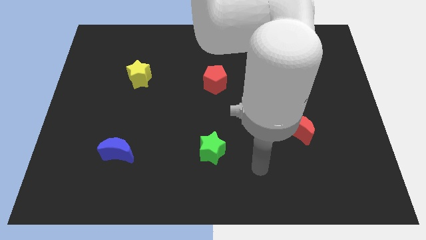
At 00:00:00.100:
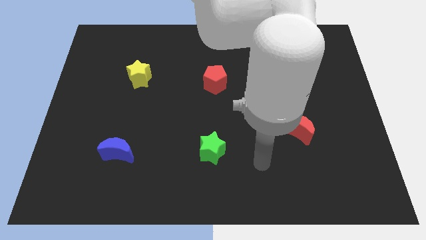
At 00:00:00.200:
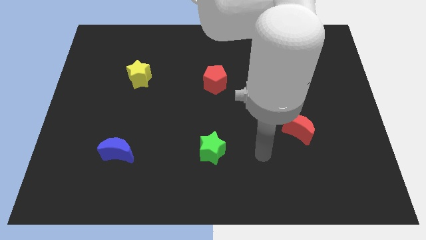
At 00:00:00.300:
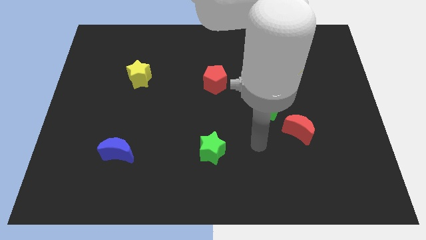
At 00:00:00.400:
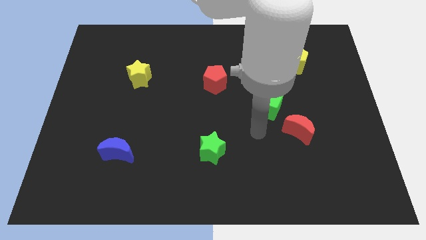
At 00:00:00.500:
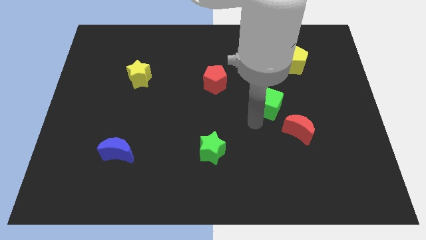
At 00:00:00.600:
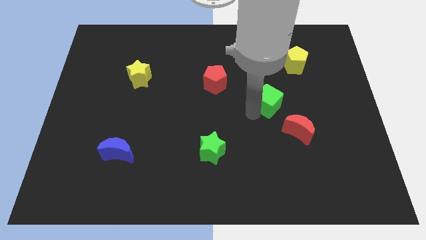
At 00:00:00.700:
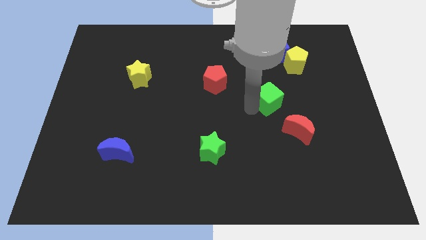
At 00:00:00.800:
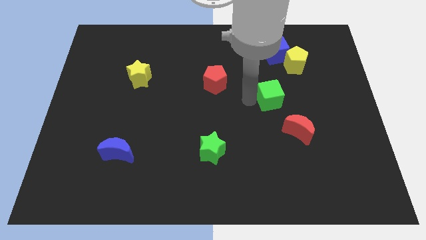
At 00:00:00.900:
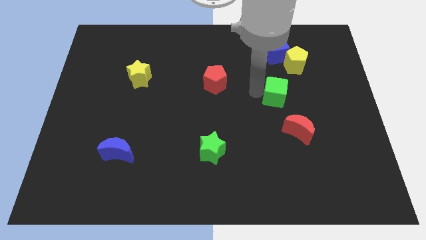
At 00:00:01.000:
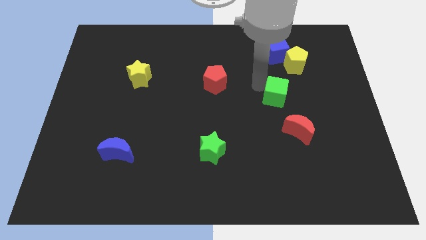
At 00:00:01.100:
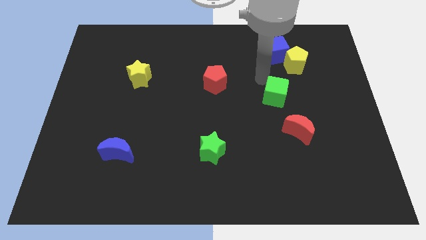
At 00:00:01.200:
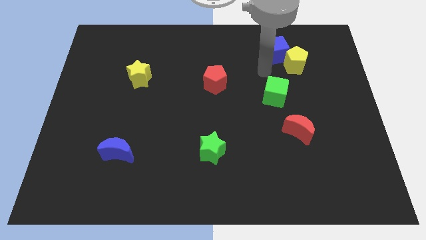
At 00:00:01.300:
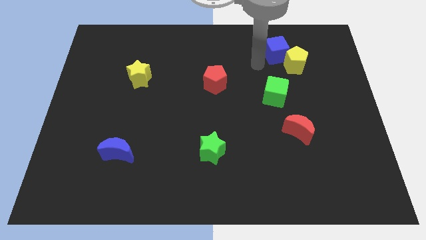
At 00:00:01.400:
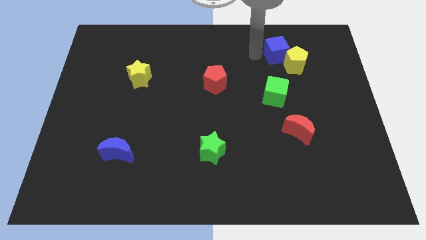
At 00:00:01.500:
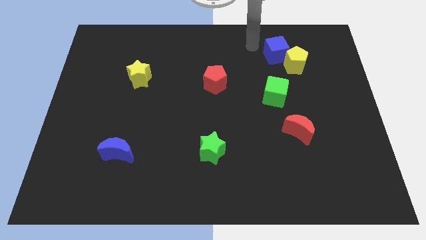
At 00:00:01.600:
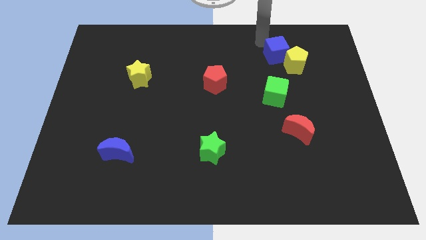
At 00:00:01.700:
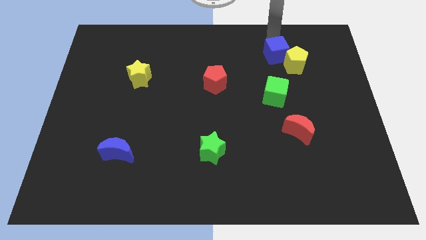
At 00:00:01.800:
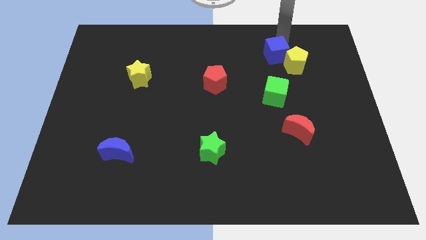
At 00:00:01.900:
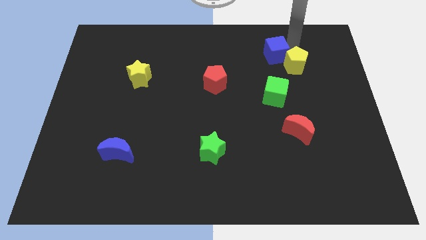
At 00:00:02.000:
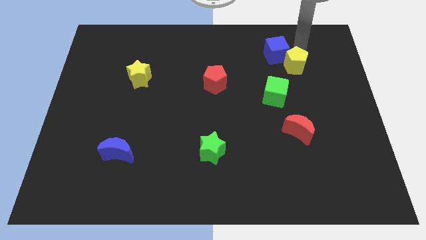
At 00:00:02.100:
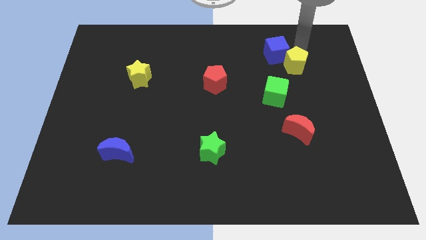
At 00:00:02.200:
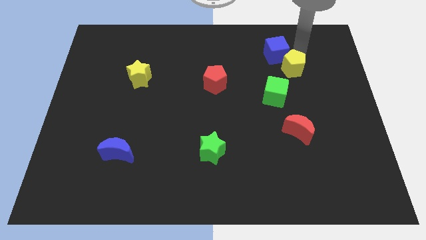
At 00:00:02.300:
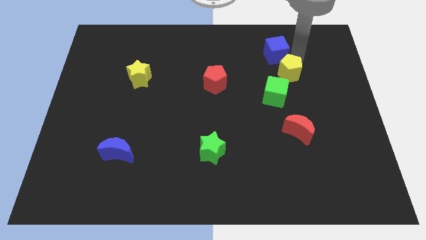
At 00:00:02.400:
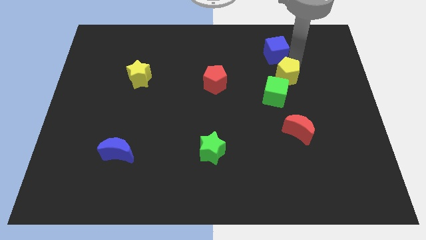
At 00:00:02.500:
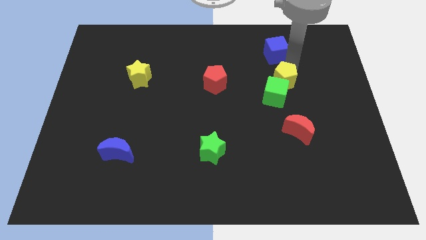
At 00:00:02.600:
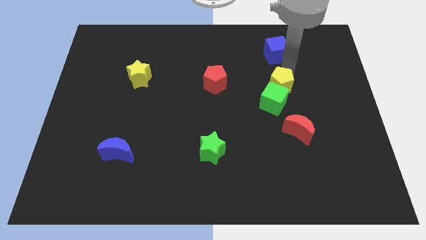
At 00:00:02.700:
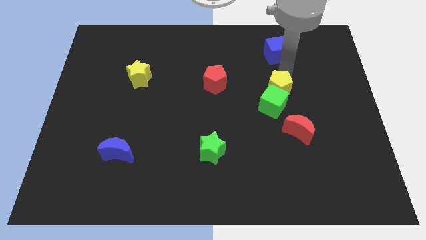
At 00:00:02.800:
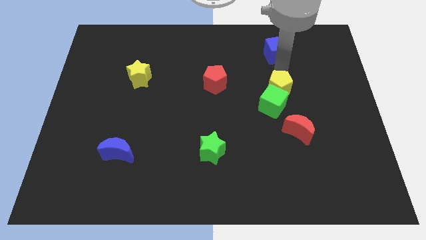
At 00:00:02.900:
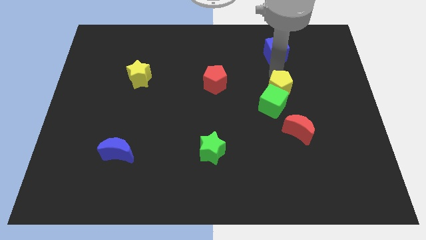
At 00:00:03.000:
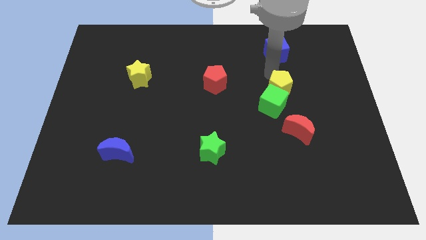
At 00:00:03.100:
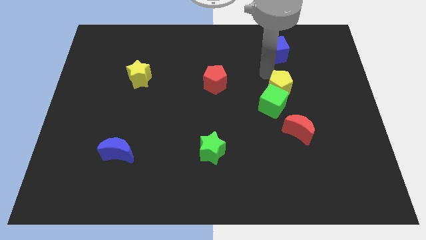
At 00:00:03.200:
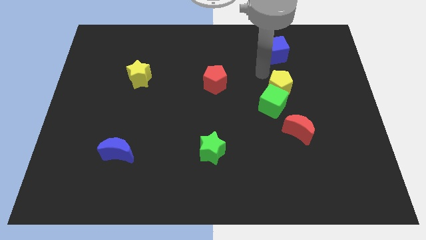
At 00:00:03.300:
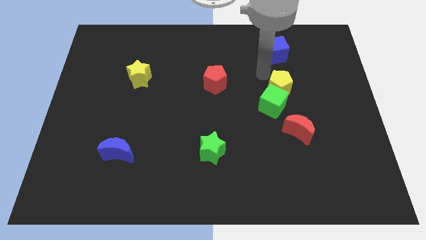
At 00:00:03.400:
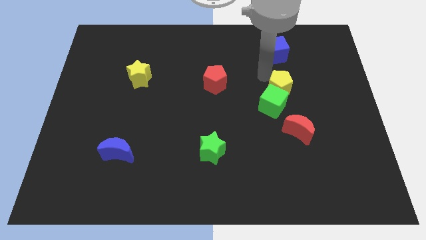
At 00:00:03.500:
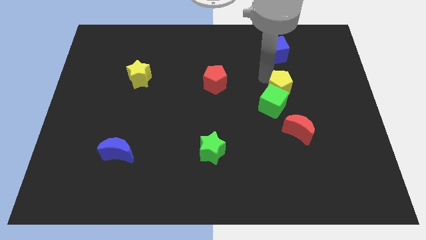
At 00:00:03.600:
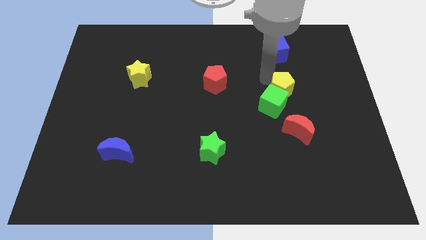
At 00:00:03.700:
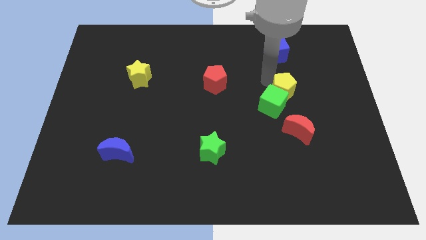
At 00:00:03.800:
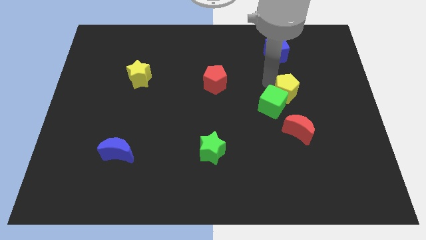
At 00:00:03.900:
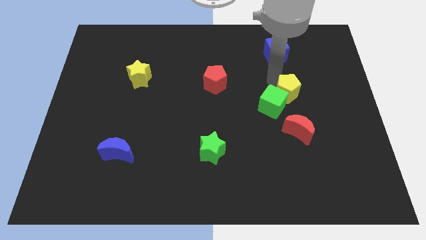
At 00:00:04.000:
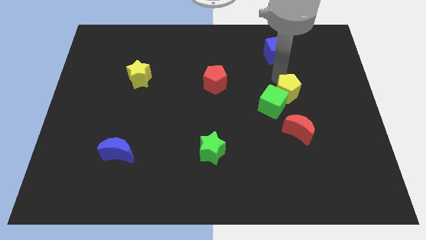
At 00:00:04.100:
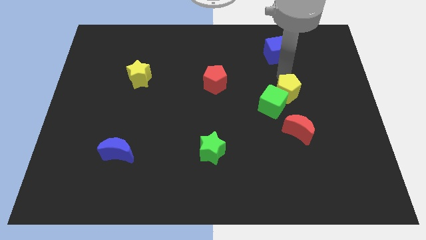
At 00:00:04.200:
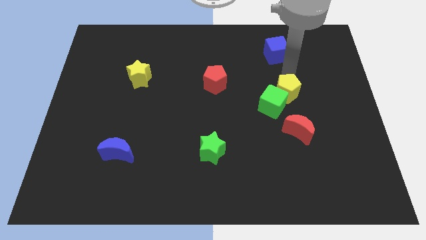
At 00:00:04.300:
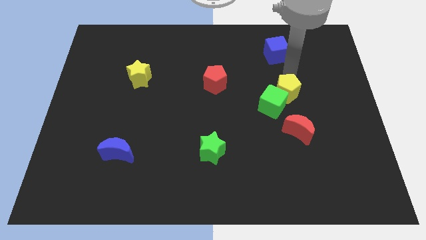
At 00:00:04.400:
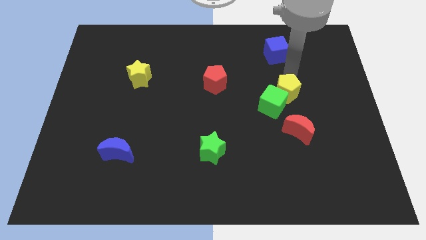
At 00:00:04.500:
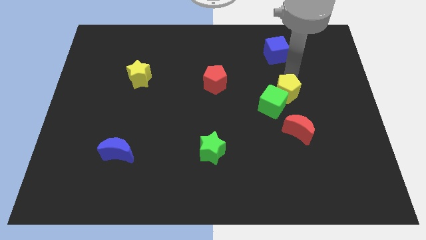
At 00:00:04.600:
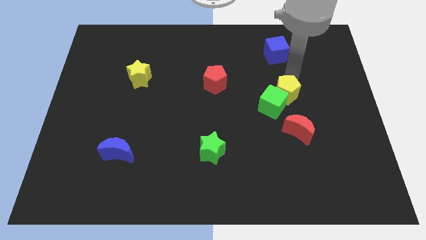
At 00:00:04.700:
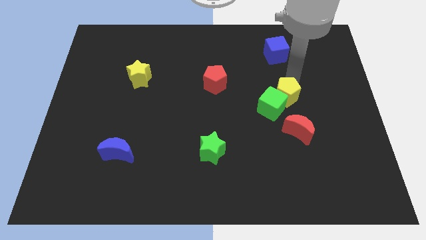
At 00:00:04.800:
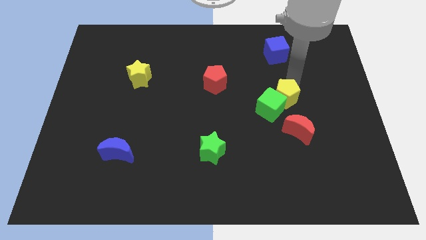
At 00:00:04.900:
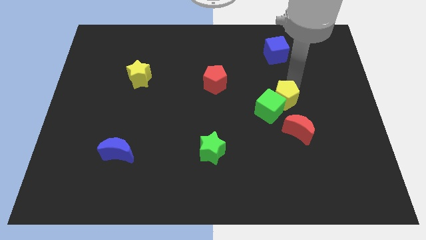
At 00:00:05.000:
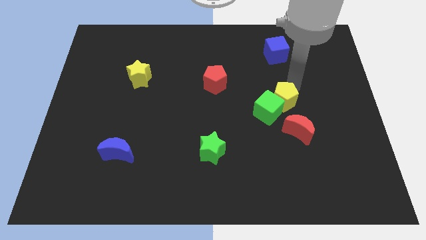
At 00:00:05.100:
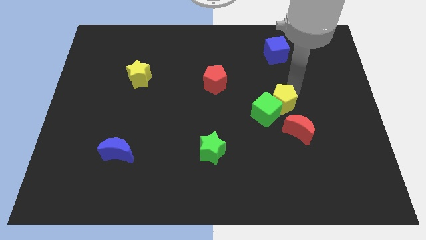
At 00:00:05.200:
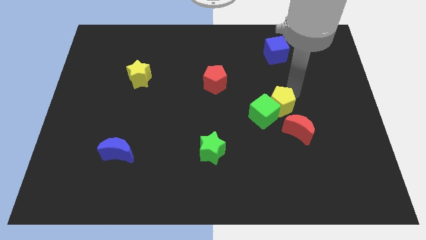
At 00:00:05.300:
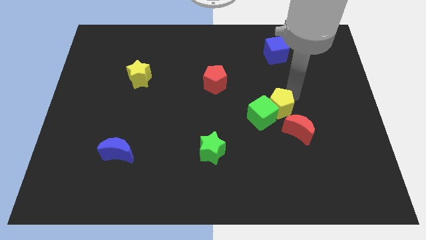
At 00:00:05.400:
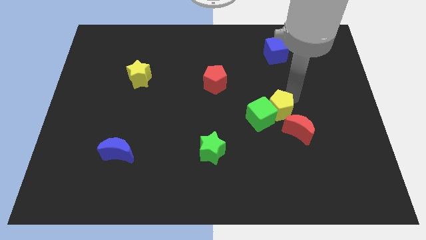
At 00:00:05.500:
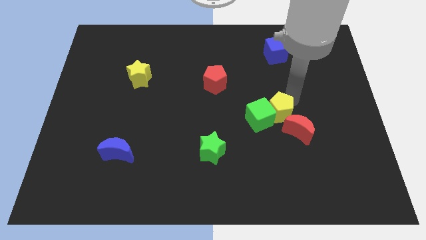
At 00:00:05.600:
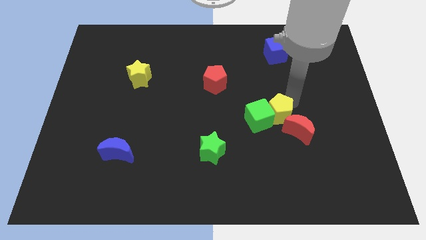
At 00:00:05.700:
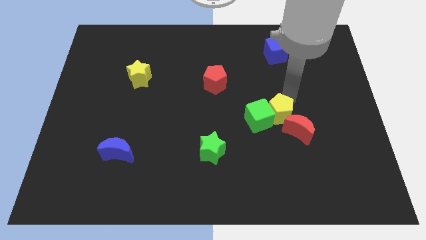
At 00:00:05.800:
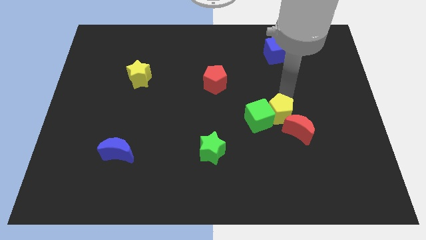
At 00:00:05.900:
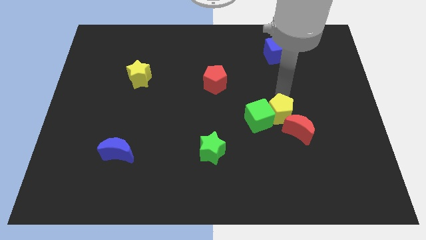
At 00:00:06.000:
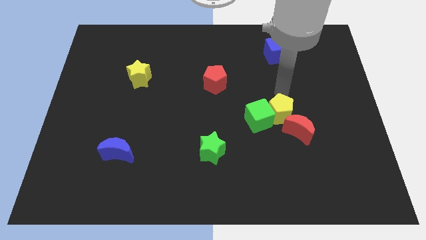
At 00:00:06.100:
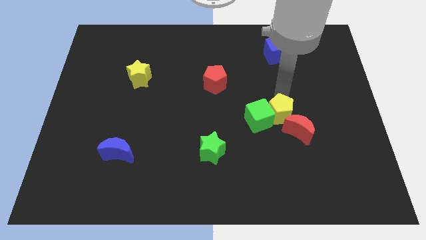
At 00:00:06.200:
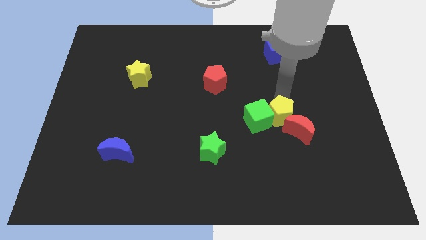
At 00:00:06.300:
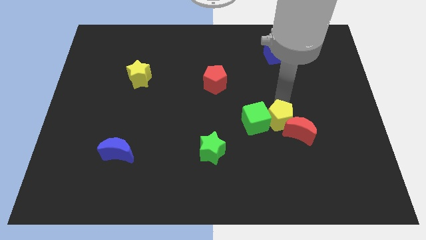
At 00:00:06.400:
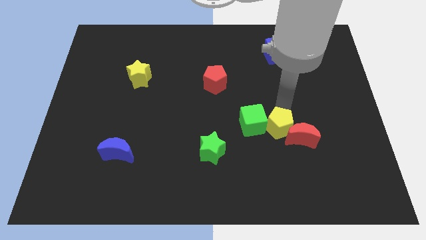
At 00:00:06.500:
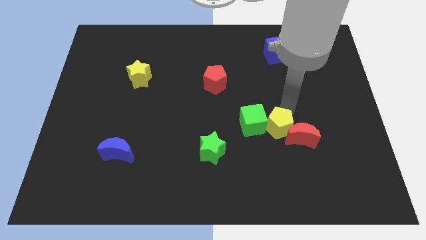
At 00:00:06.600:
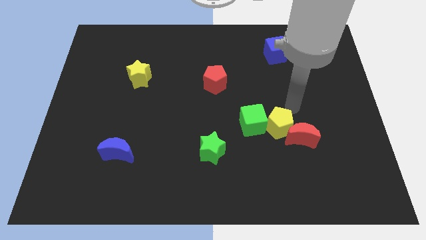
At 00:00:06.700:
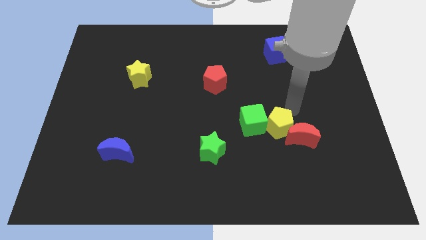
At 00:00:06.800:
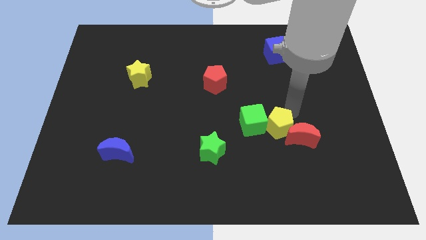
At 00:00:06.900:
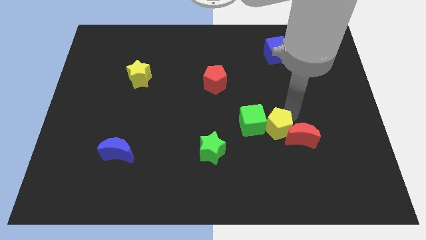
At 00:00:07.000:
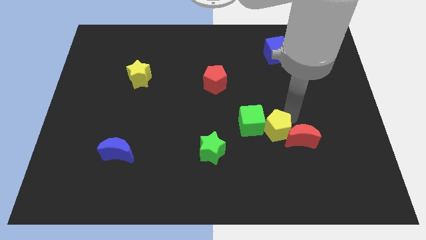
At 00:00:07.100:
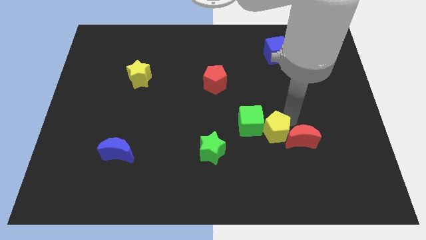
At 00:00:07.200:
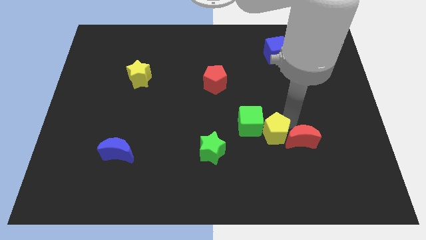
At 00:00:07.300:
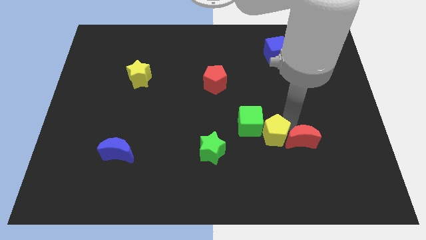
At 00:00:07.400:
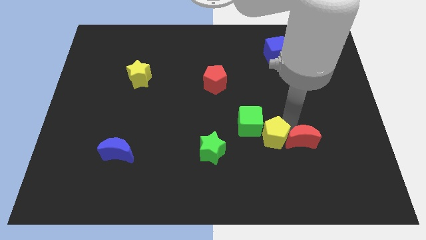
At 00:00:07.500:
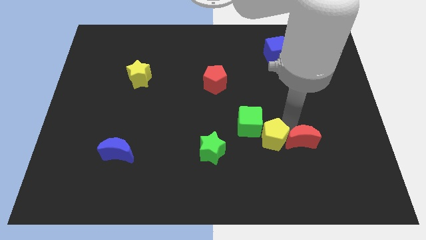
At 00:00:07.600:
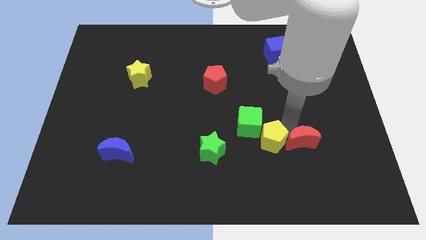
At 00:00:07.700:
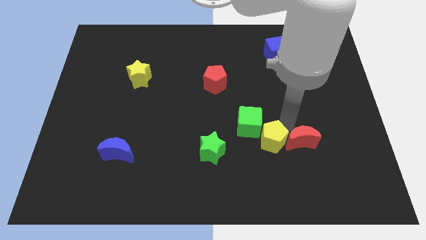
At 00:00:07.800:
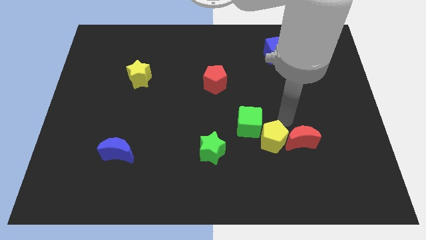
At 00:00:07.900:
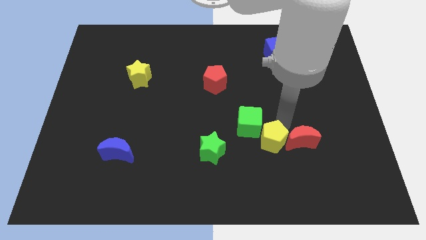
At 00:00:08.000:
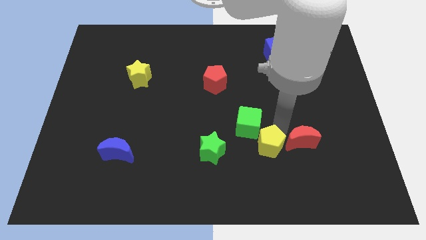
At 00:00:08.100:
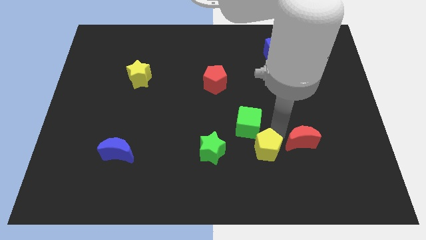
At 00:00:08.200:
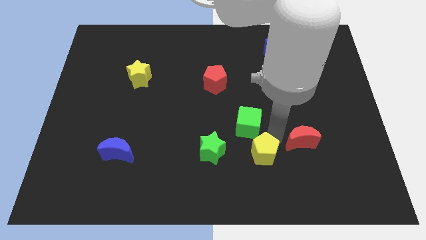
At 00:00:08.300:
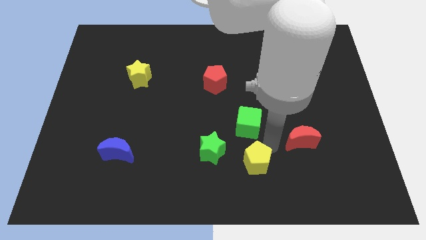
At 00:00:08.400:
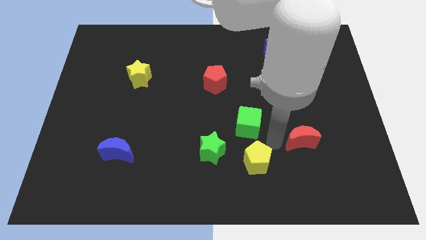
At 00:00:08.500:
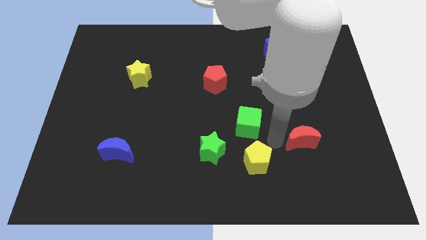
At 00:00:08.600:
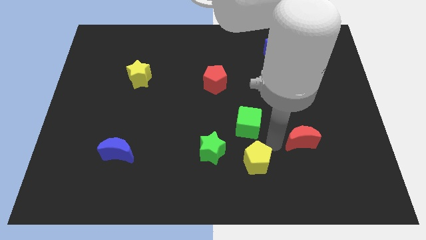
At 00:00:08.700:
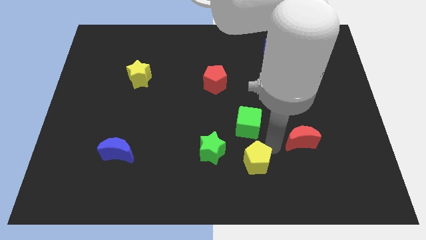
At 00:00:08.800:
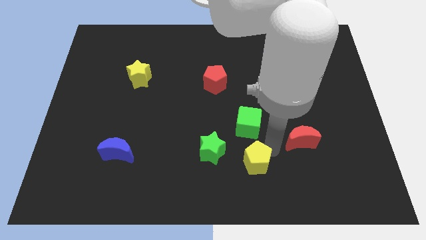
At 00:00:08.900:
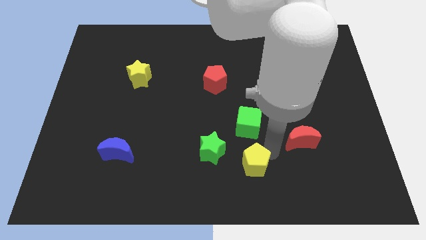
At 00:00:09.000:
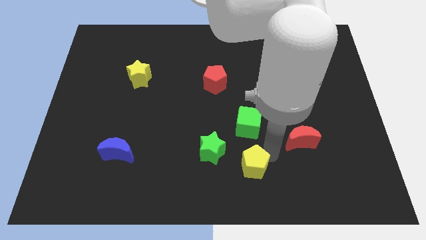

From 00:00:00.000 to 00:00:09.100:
slide the yellow pentagon to the bottom side
